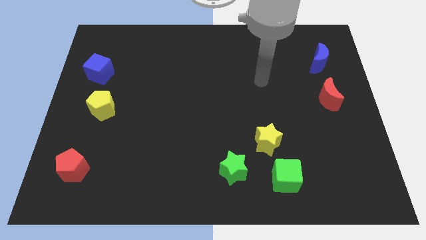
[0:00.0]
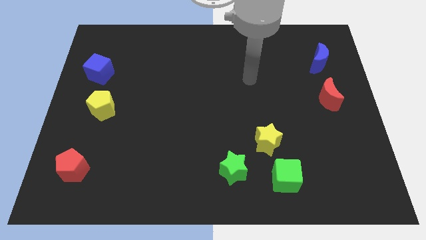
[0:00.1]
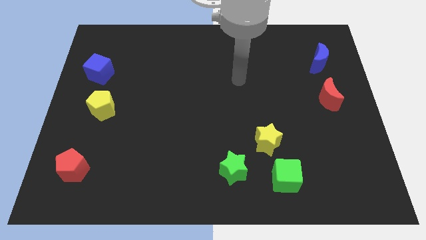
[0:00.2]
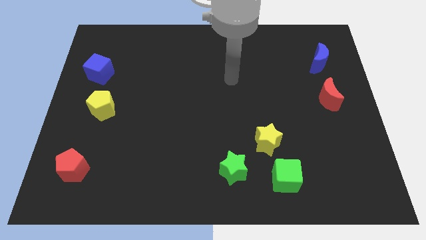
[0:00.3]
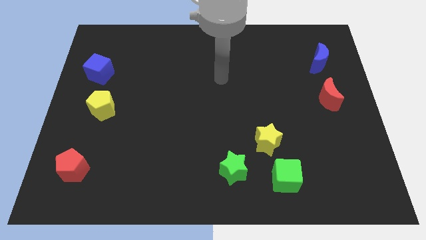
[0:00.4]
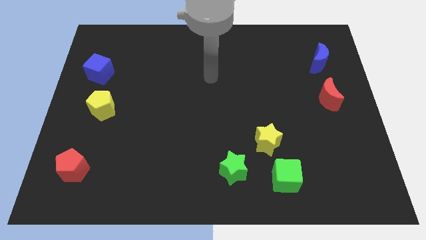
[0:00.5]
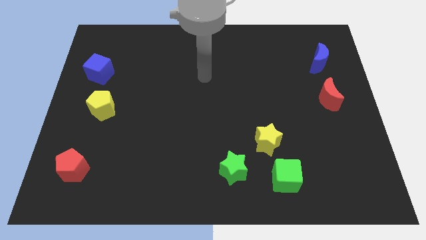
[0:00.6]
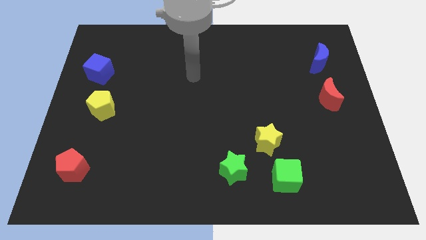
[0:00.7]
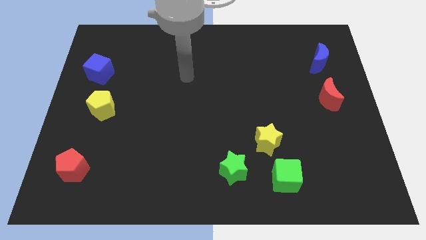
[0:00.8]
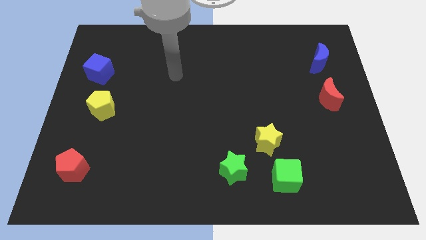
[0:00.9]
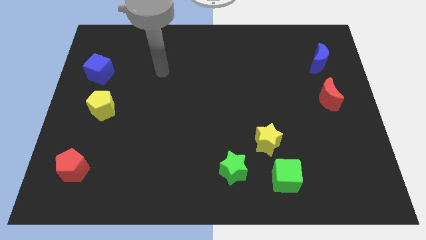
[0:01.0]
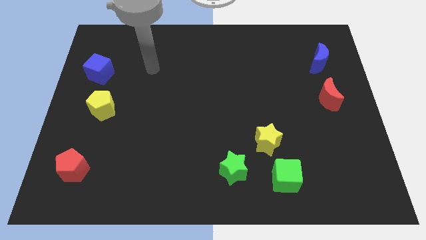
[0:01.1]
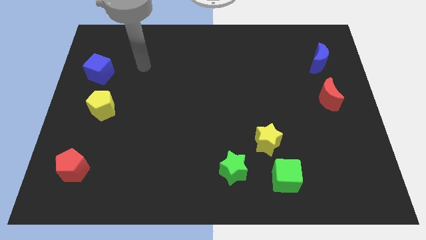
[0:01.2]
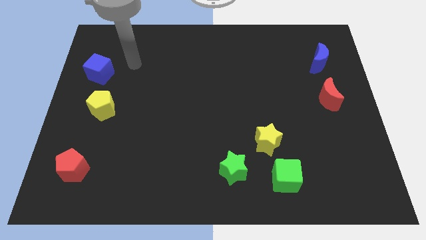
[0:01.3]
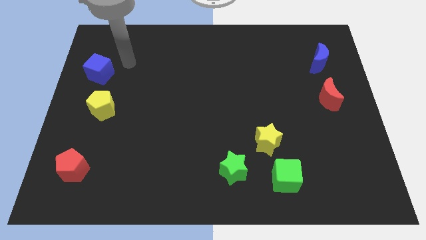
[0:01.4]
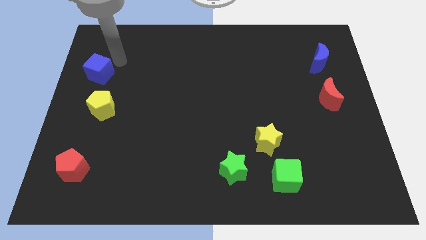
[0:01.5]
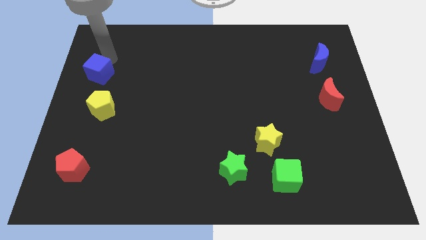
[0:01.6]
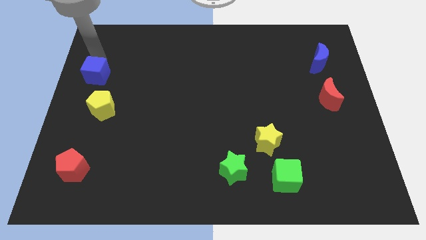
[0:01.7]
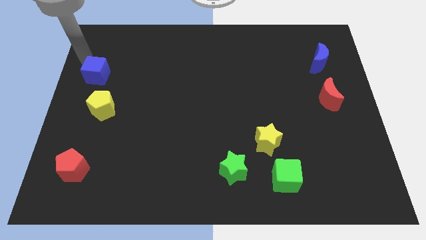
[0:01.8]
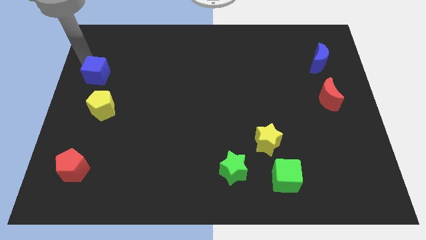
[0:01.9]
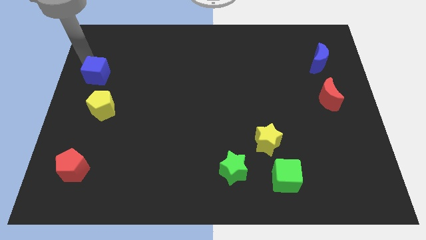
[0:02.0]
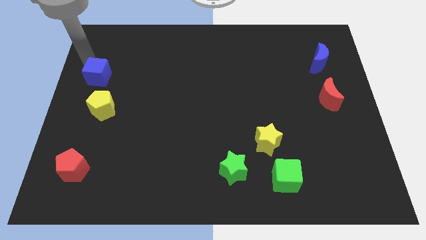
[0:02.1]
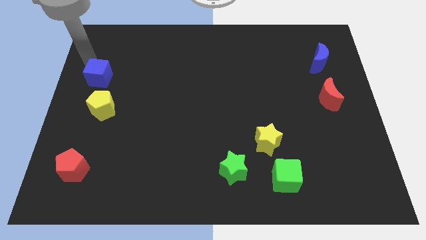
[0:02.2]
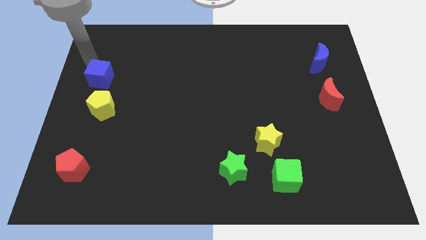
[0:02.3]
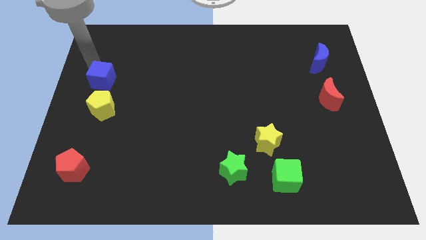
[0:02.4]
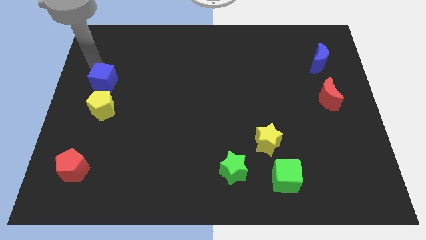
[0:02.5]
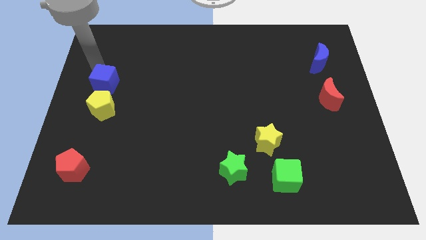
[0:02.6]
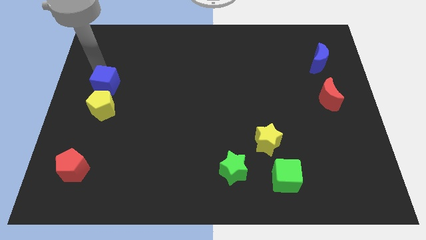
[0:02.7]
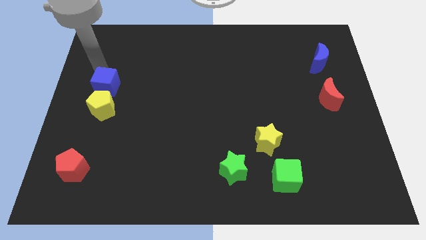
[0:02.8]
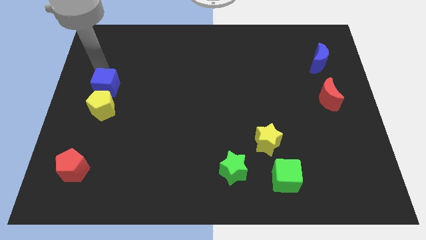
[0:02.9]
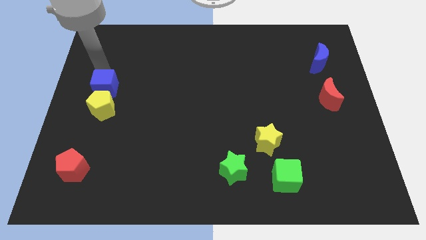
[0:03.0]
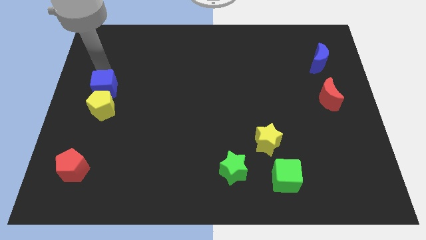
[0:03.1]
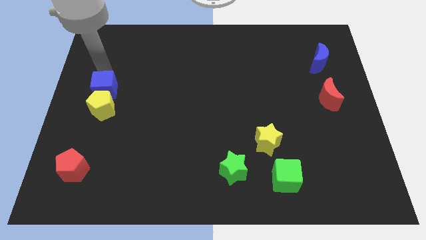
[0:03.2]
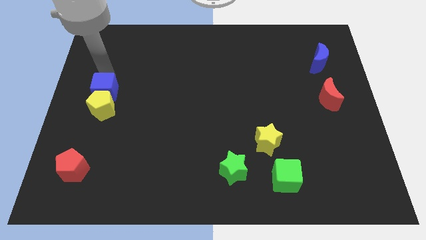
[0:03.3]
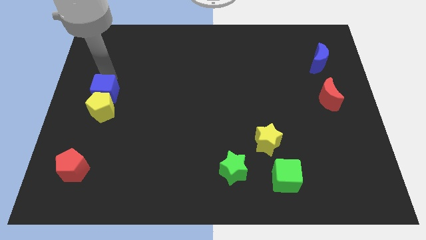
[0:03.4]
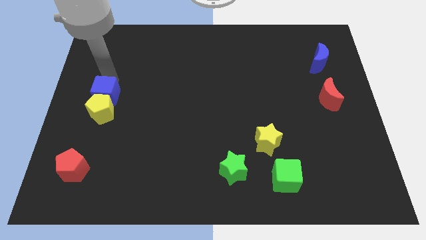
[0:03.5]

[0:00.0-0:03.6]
move the blue cube a little downwards and then to the right

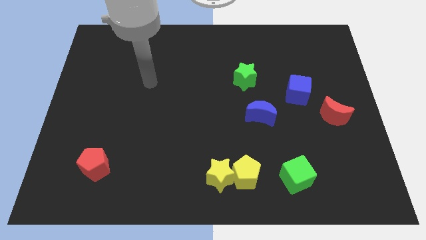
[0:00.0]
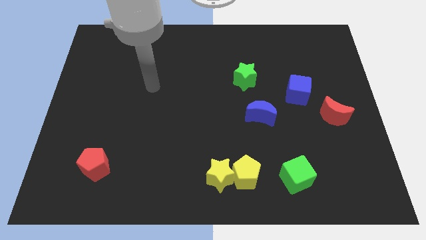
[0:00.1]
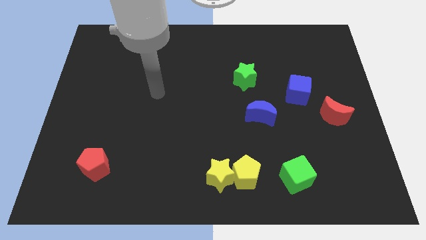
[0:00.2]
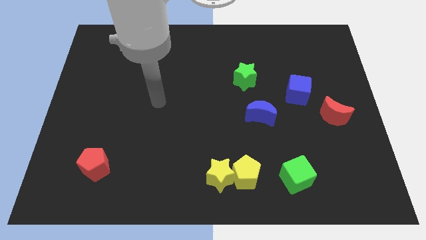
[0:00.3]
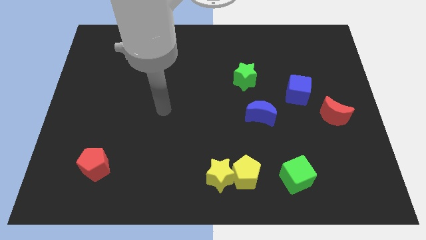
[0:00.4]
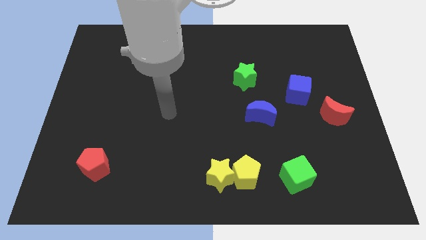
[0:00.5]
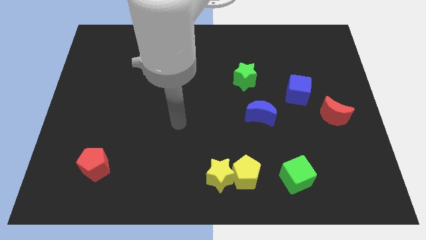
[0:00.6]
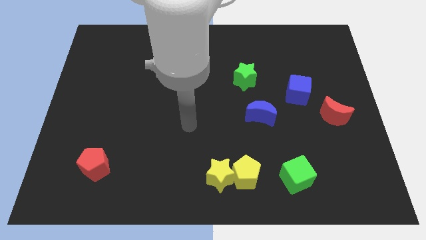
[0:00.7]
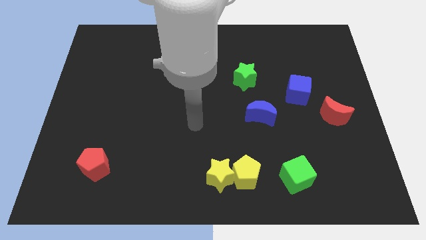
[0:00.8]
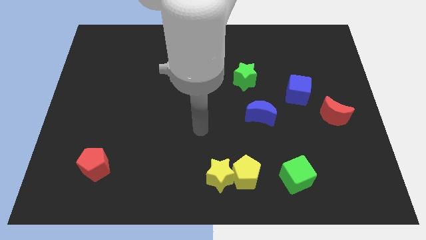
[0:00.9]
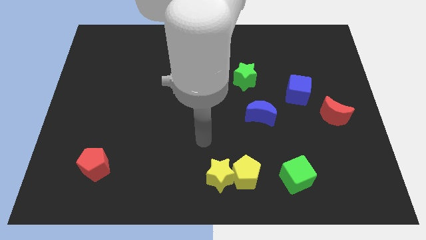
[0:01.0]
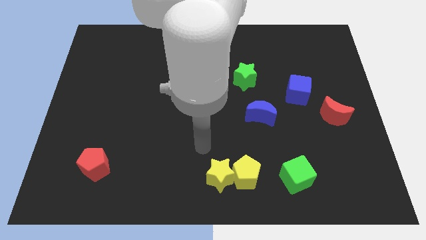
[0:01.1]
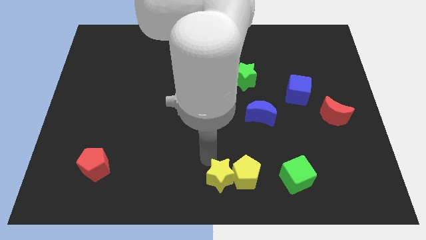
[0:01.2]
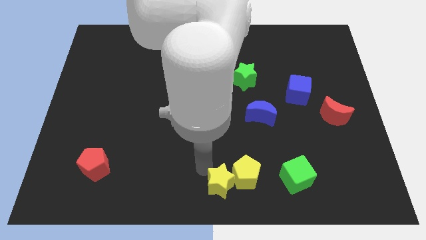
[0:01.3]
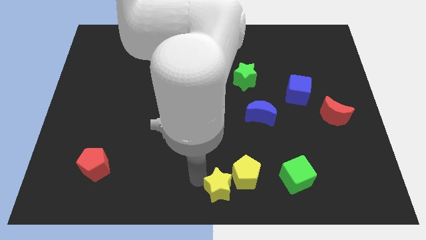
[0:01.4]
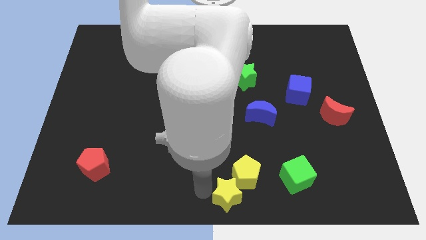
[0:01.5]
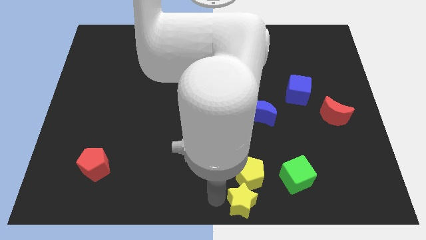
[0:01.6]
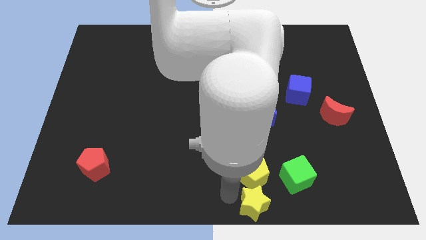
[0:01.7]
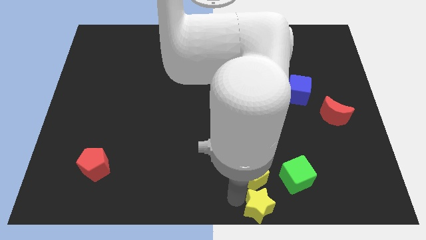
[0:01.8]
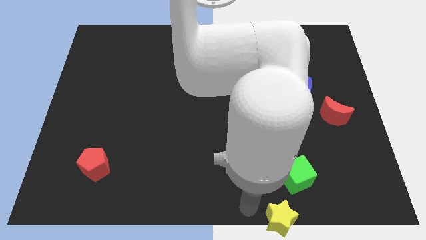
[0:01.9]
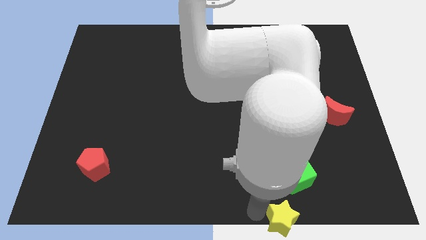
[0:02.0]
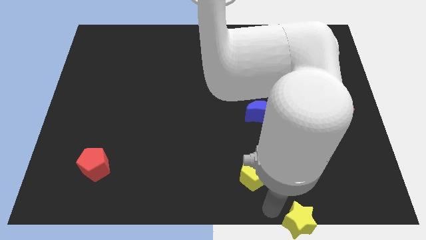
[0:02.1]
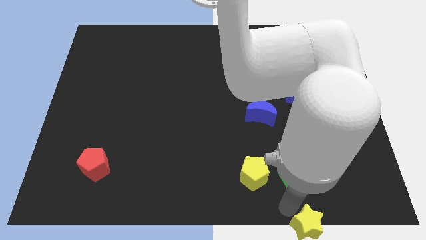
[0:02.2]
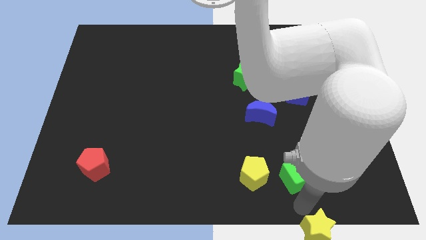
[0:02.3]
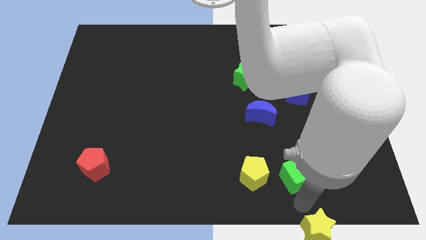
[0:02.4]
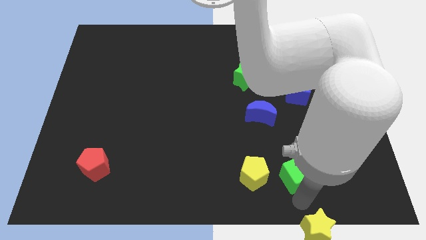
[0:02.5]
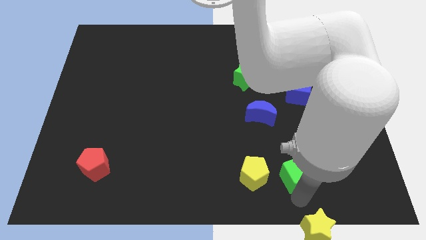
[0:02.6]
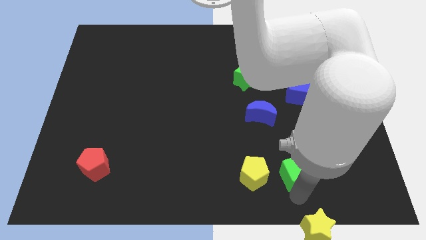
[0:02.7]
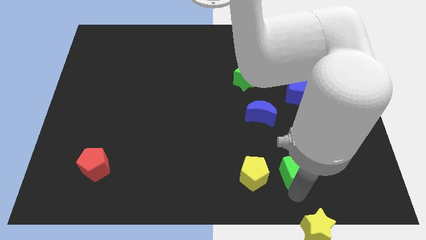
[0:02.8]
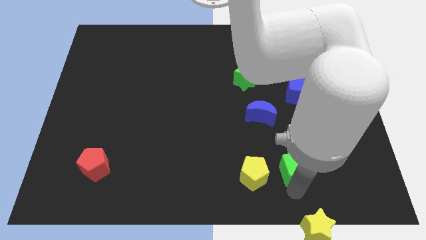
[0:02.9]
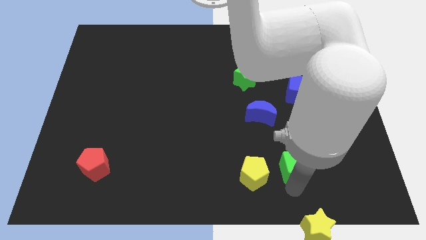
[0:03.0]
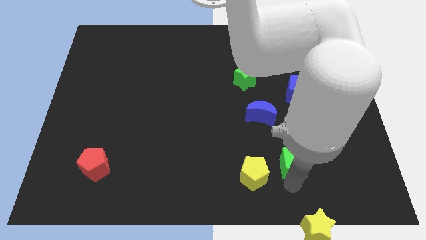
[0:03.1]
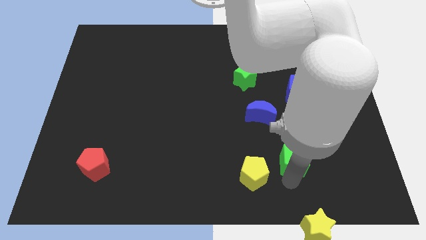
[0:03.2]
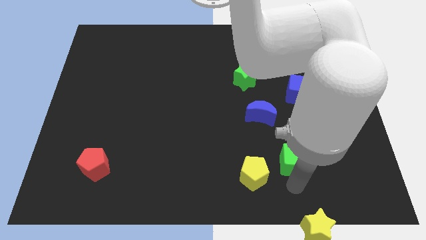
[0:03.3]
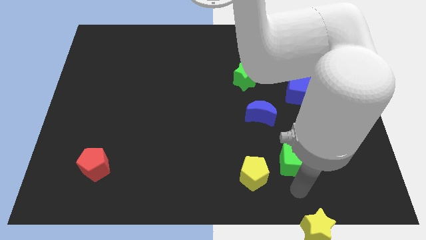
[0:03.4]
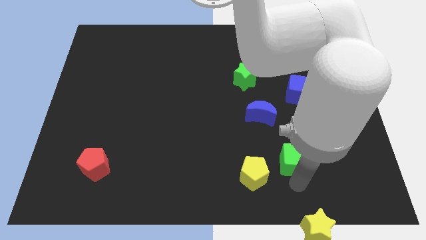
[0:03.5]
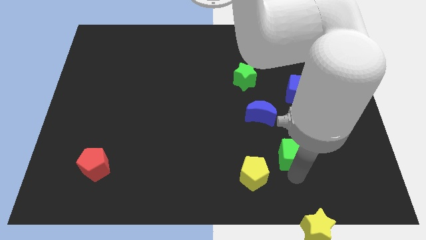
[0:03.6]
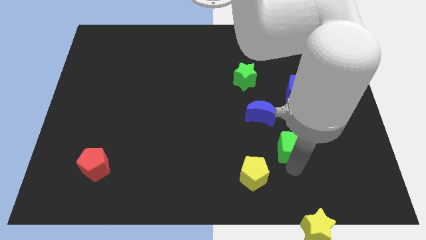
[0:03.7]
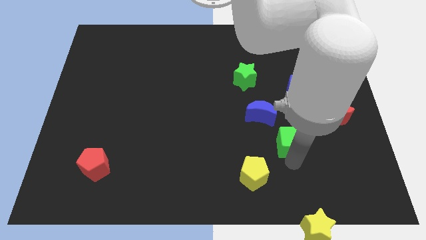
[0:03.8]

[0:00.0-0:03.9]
slide the green cube slightly upwards

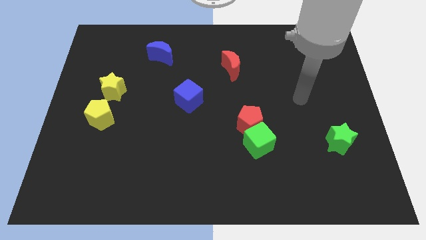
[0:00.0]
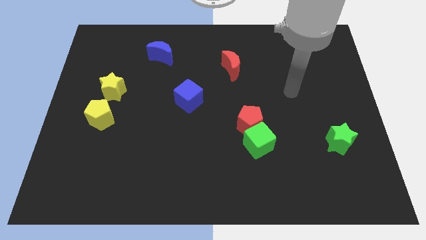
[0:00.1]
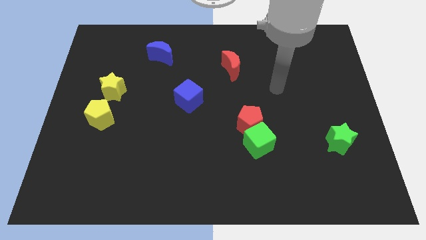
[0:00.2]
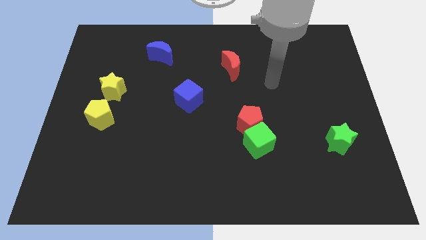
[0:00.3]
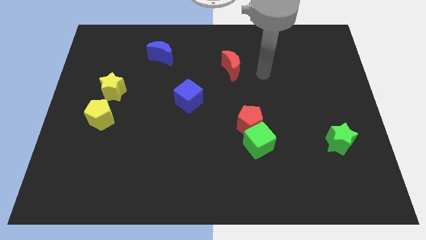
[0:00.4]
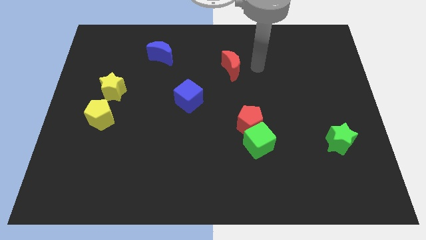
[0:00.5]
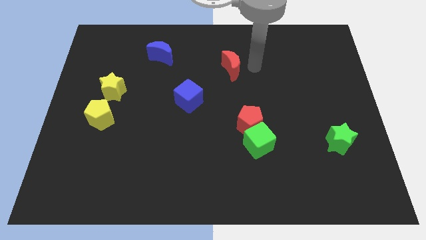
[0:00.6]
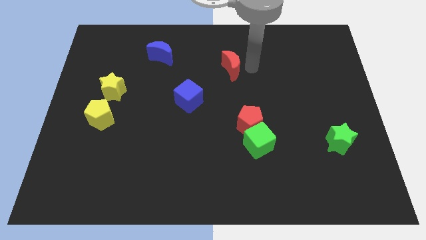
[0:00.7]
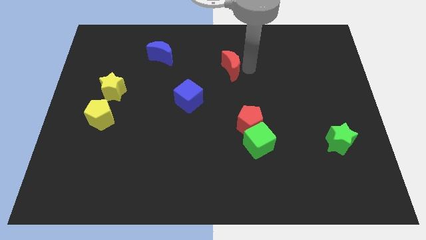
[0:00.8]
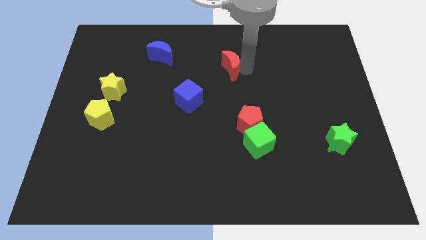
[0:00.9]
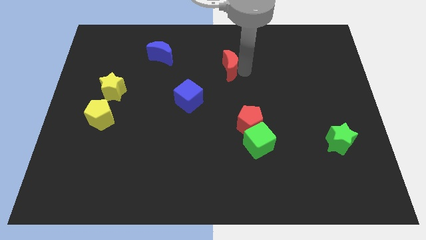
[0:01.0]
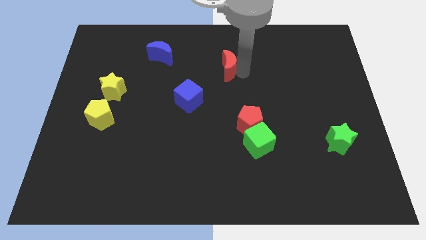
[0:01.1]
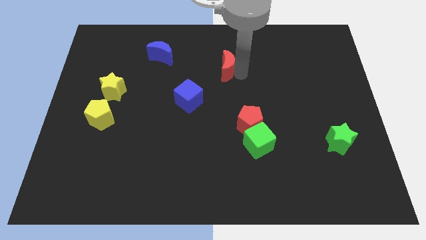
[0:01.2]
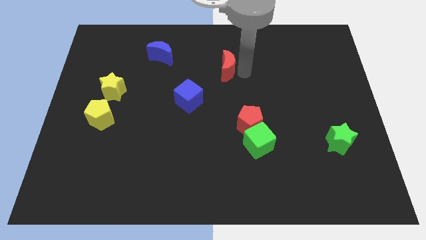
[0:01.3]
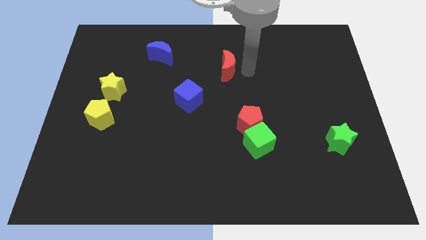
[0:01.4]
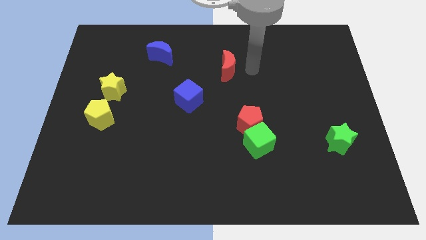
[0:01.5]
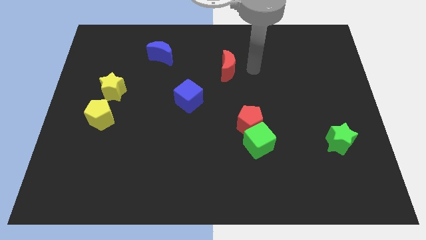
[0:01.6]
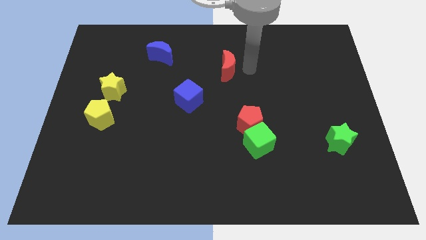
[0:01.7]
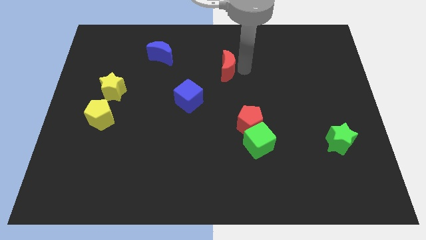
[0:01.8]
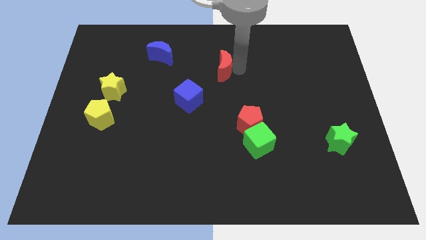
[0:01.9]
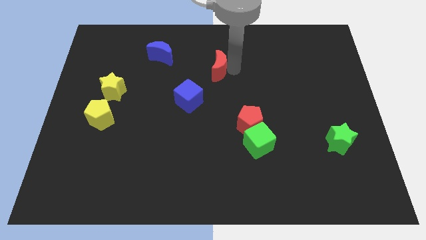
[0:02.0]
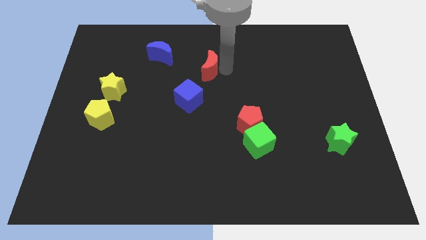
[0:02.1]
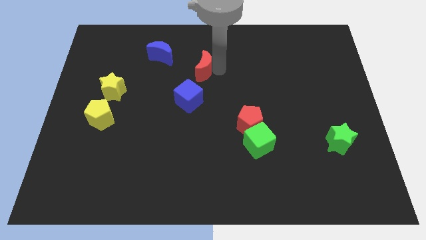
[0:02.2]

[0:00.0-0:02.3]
slide the red moon a little to the left
